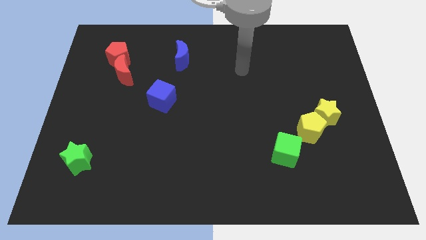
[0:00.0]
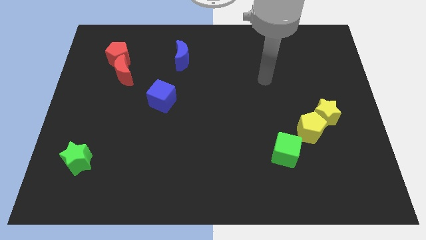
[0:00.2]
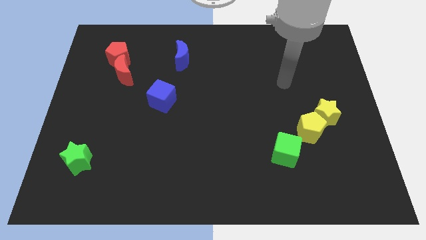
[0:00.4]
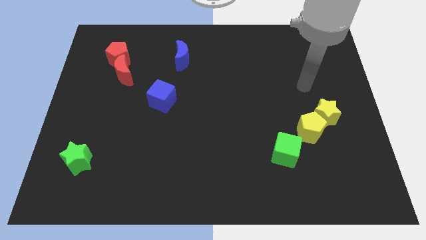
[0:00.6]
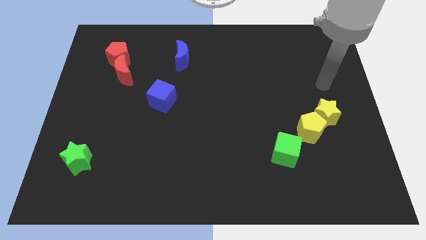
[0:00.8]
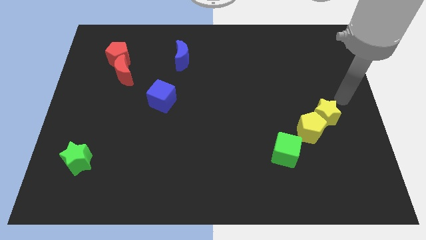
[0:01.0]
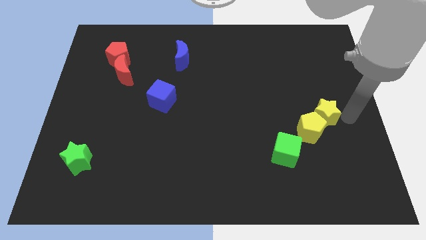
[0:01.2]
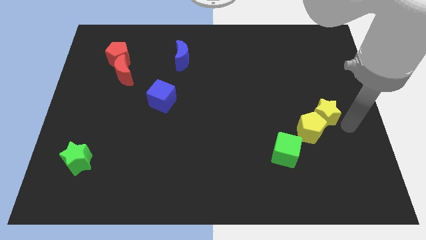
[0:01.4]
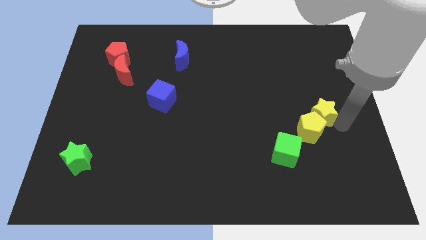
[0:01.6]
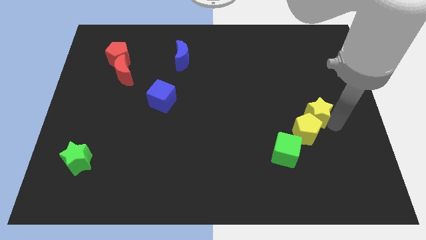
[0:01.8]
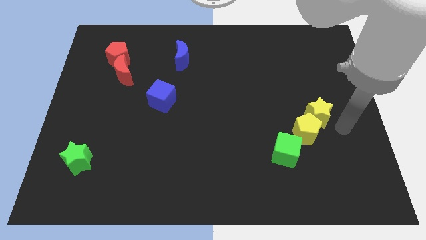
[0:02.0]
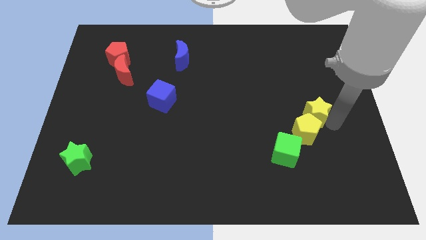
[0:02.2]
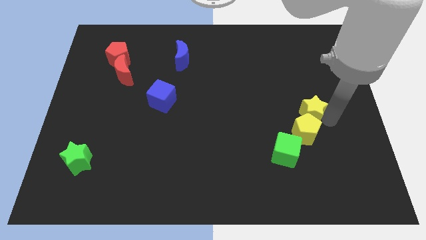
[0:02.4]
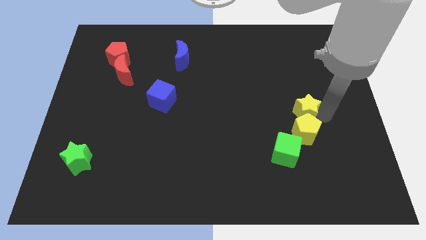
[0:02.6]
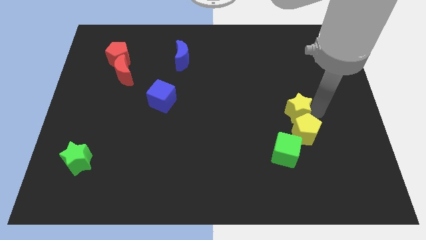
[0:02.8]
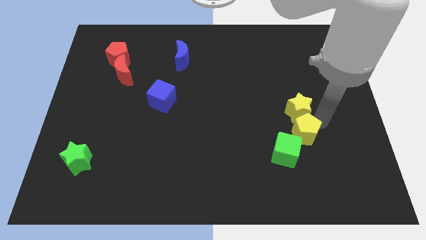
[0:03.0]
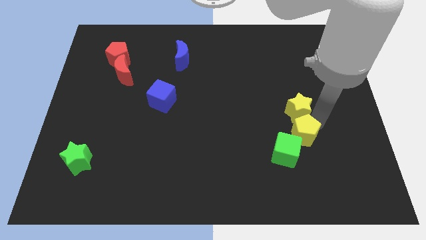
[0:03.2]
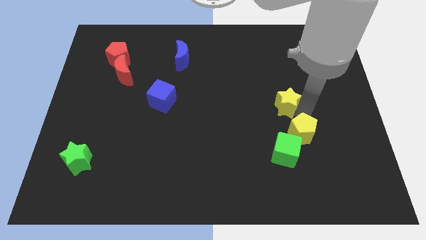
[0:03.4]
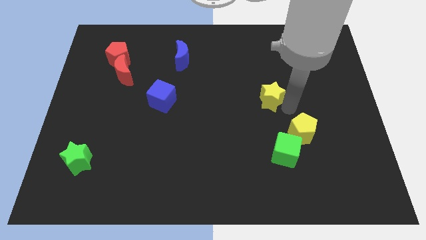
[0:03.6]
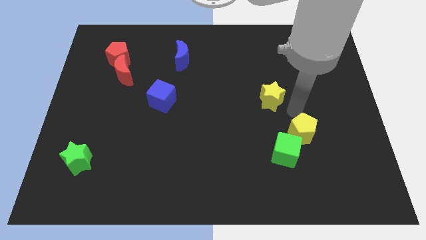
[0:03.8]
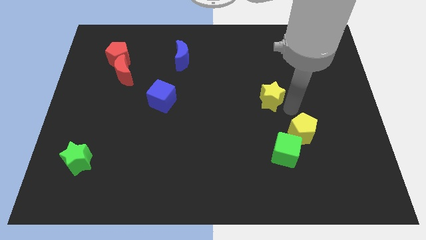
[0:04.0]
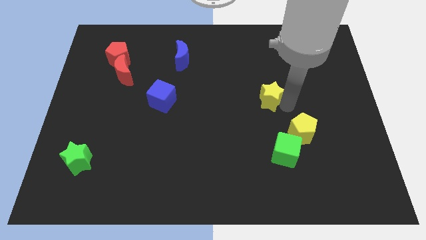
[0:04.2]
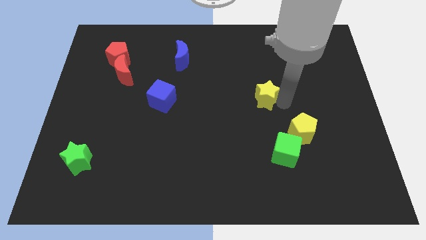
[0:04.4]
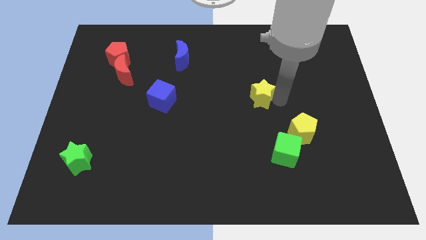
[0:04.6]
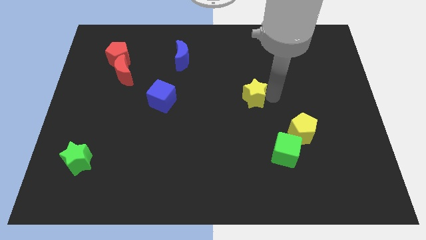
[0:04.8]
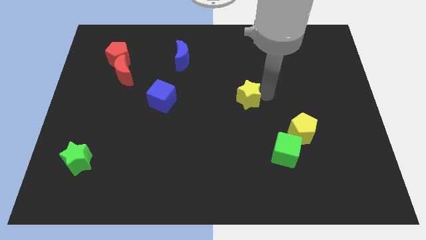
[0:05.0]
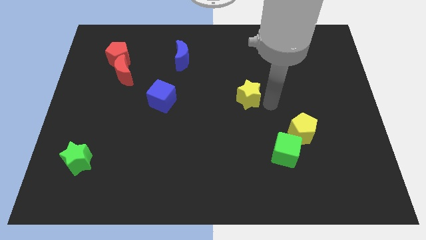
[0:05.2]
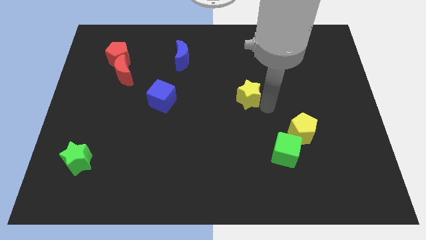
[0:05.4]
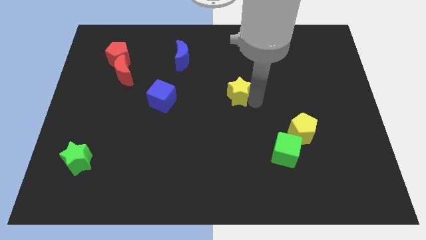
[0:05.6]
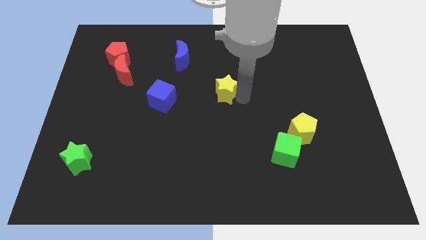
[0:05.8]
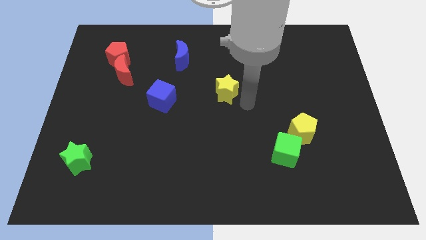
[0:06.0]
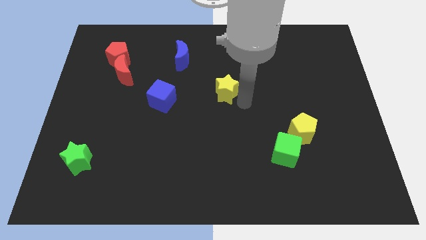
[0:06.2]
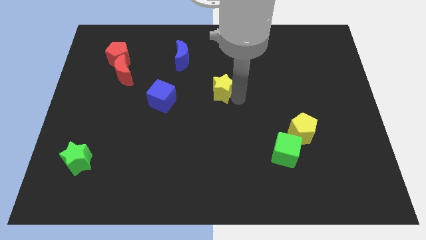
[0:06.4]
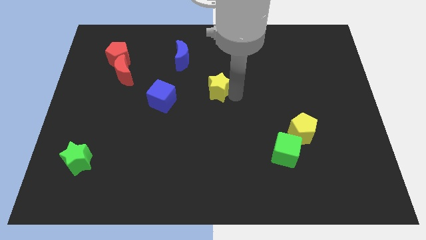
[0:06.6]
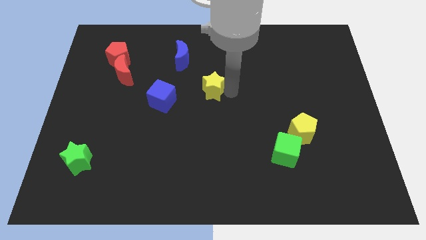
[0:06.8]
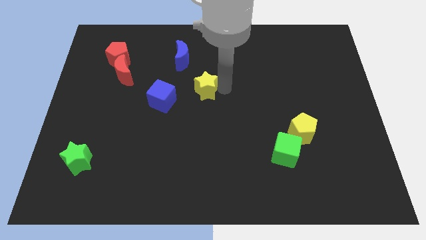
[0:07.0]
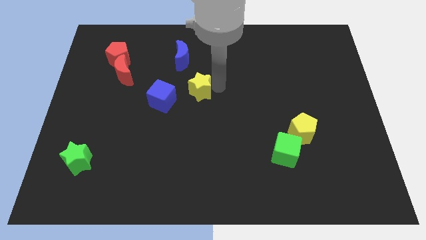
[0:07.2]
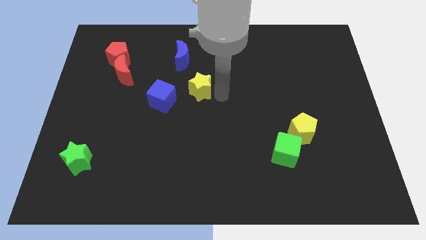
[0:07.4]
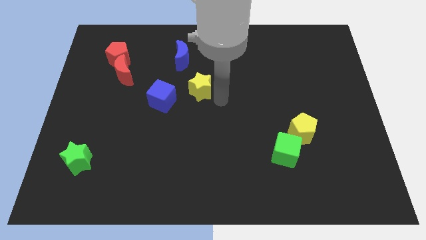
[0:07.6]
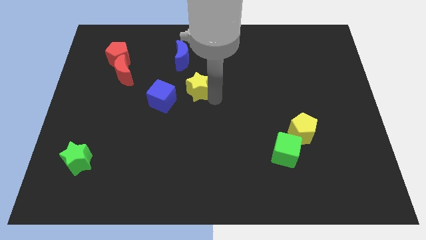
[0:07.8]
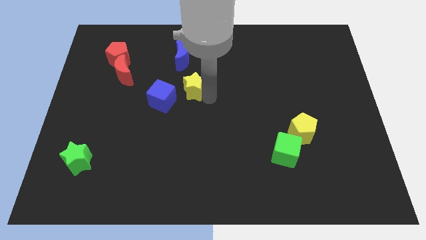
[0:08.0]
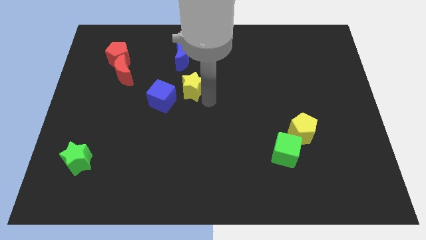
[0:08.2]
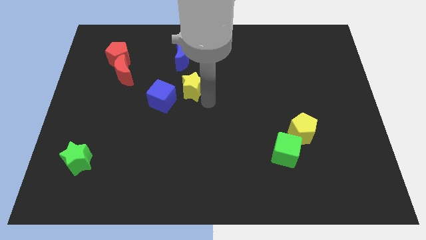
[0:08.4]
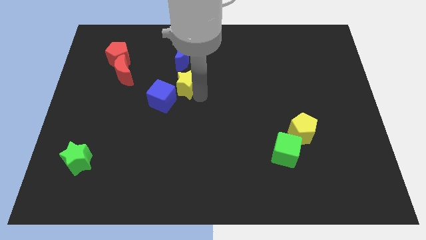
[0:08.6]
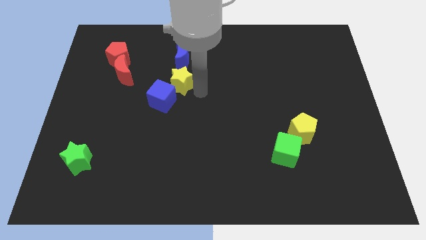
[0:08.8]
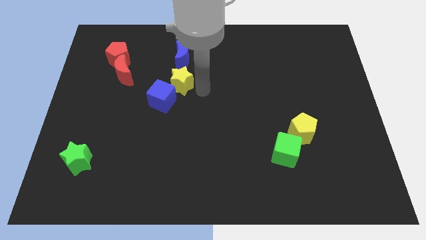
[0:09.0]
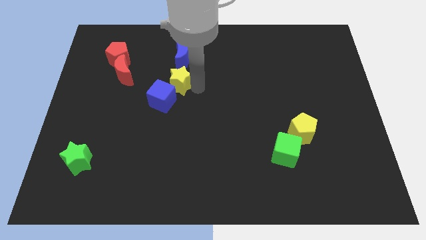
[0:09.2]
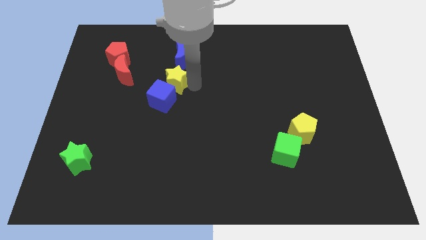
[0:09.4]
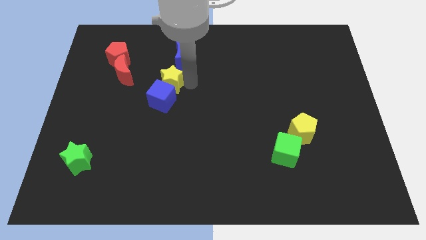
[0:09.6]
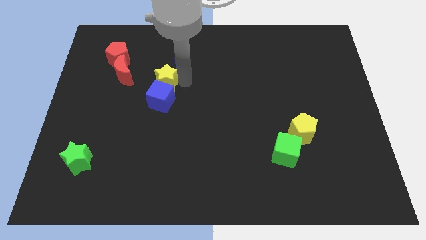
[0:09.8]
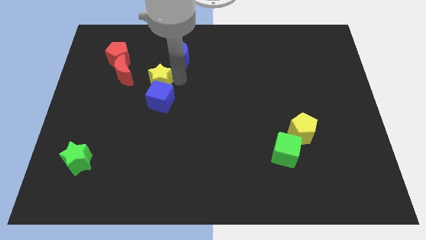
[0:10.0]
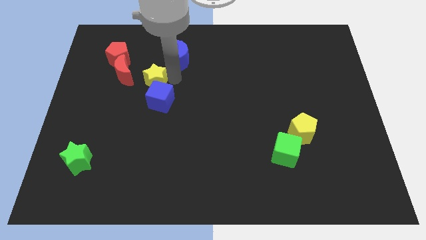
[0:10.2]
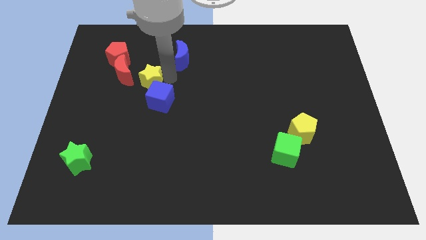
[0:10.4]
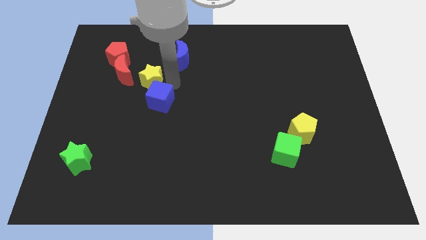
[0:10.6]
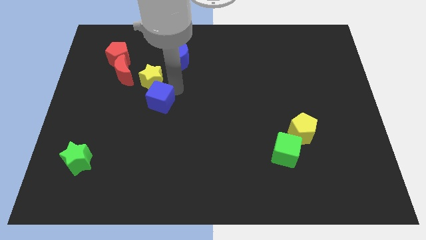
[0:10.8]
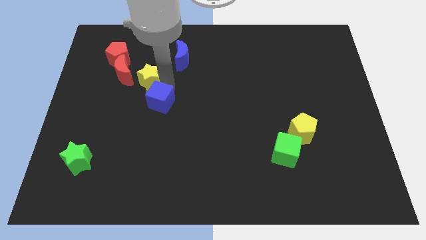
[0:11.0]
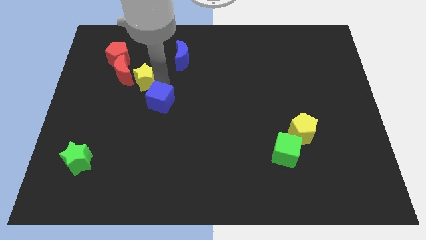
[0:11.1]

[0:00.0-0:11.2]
push the yellow star towards the red moon
